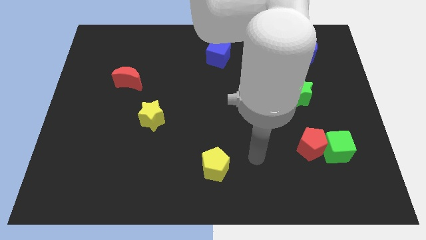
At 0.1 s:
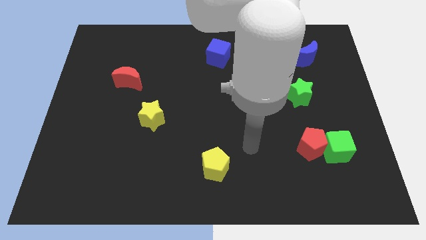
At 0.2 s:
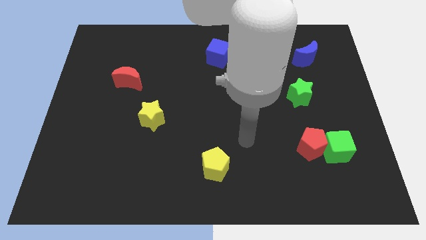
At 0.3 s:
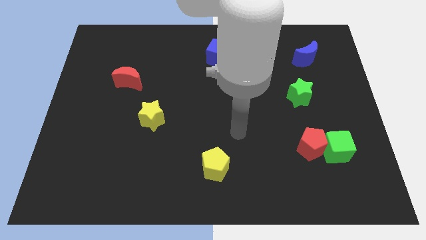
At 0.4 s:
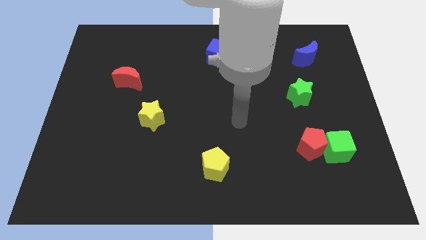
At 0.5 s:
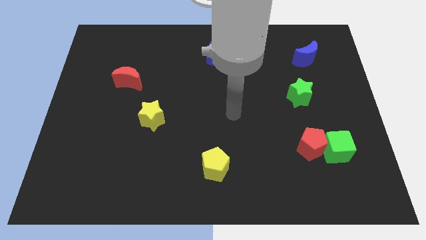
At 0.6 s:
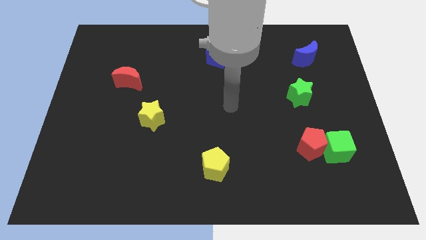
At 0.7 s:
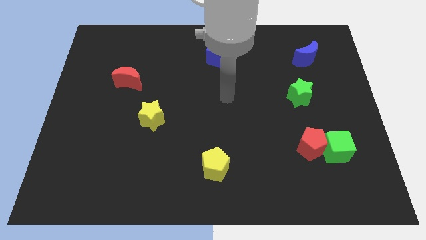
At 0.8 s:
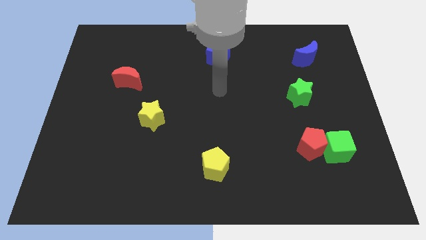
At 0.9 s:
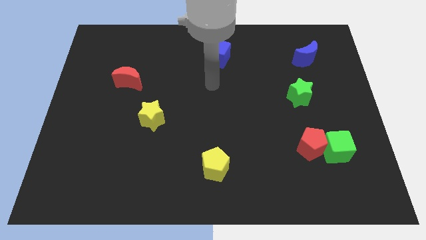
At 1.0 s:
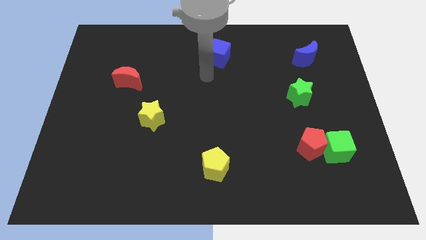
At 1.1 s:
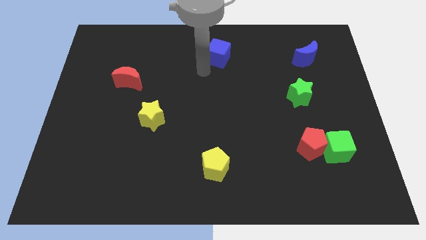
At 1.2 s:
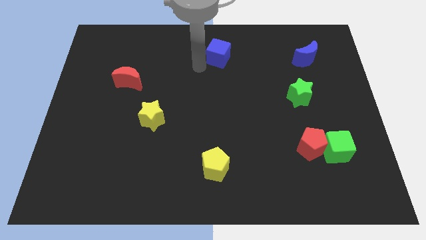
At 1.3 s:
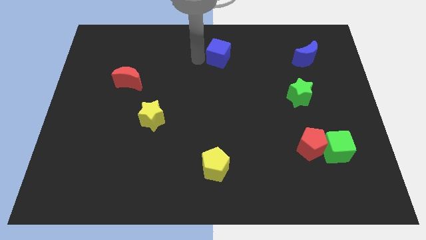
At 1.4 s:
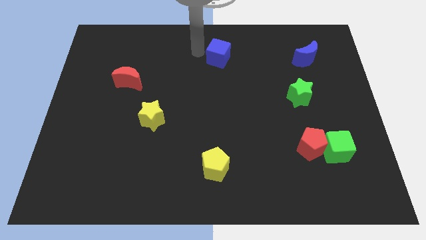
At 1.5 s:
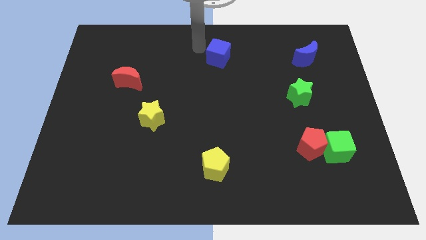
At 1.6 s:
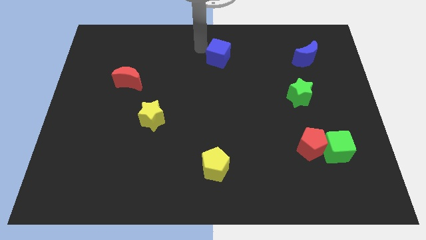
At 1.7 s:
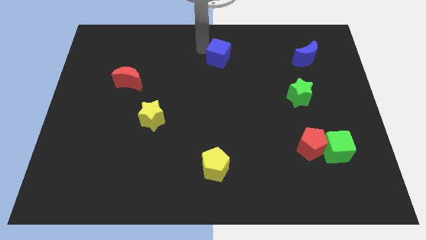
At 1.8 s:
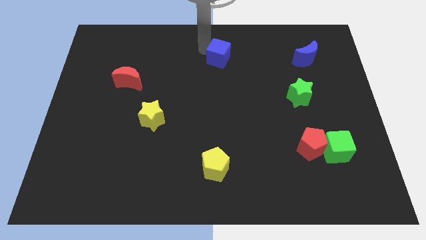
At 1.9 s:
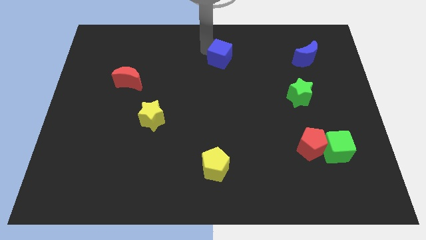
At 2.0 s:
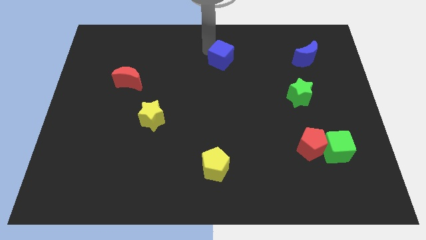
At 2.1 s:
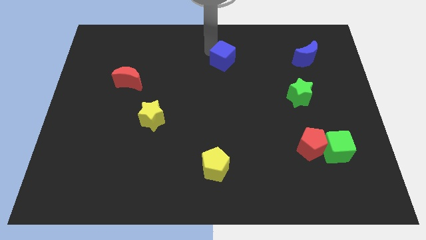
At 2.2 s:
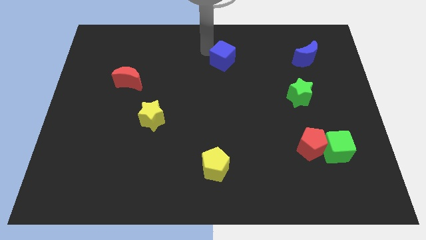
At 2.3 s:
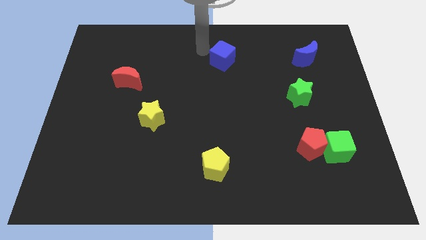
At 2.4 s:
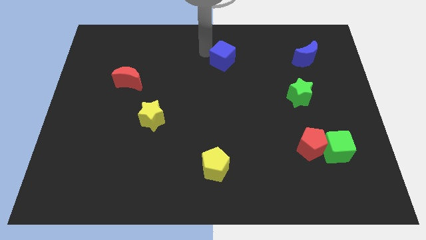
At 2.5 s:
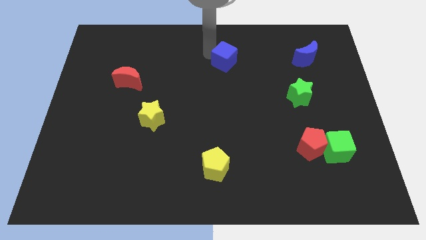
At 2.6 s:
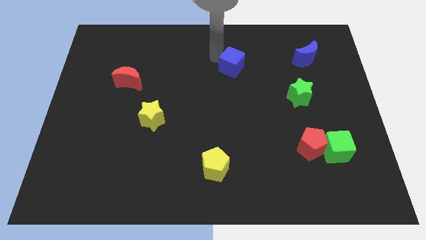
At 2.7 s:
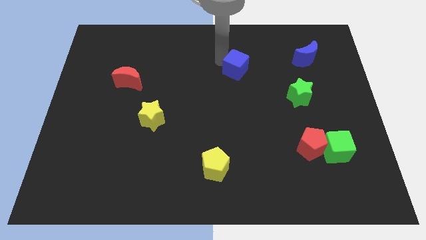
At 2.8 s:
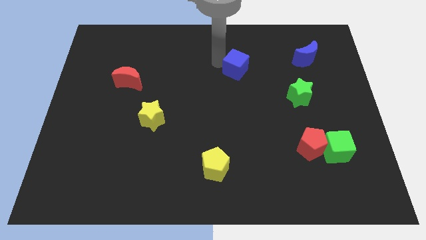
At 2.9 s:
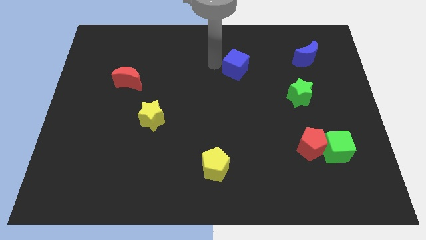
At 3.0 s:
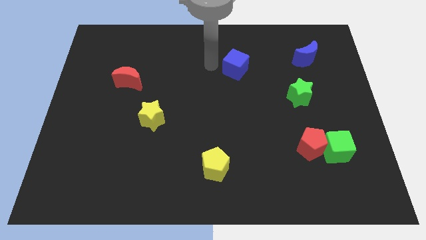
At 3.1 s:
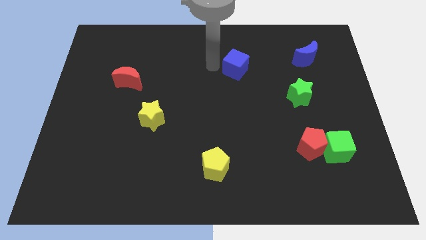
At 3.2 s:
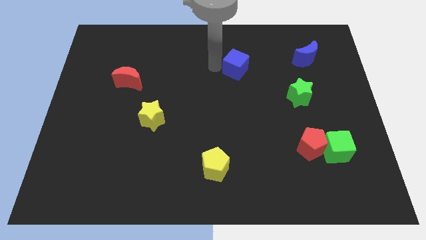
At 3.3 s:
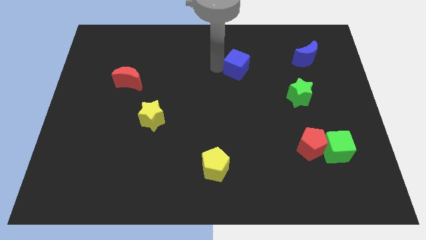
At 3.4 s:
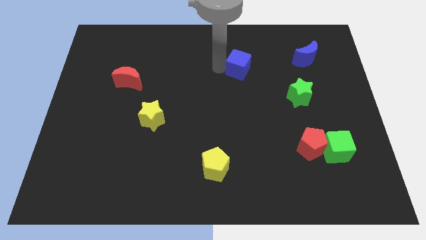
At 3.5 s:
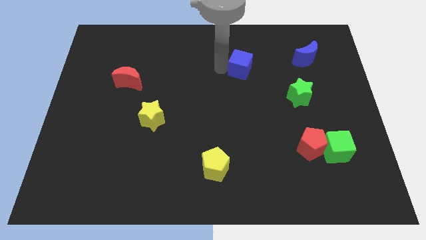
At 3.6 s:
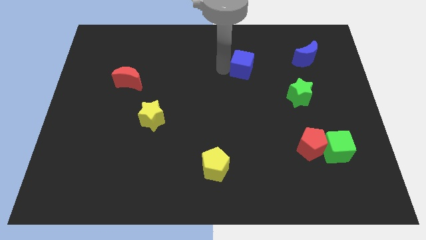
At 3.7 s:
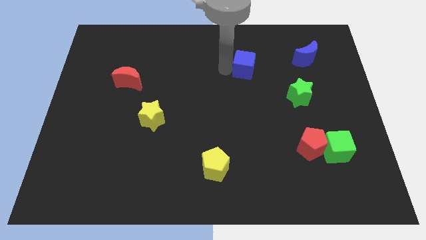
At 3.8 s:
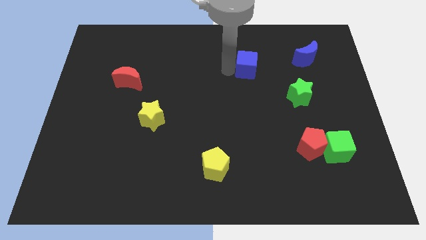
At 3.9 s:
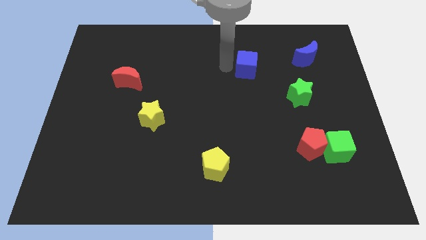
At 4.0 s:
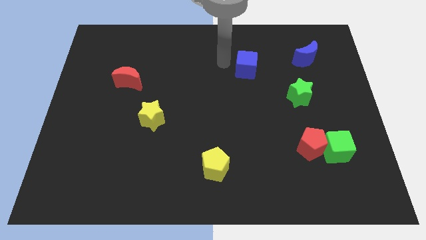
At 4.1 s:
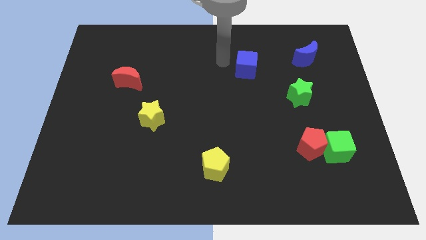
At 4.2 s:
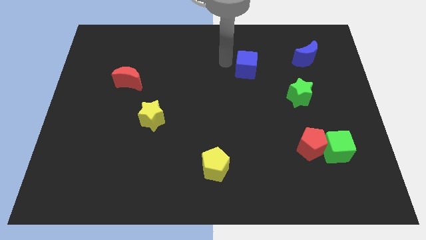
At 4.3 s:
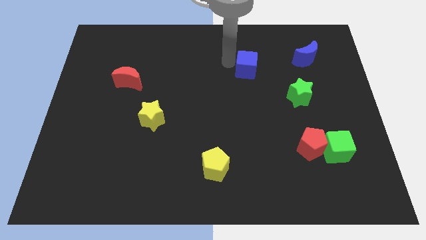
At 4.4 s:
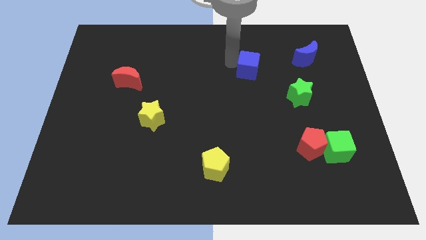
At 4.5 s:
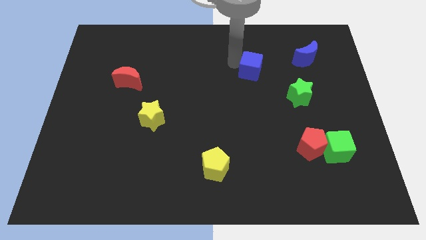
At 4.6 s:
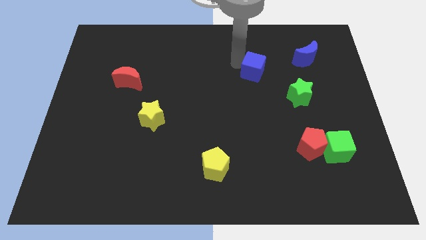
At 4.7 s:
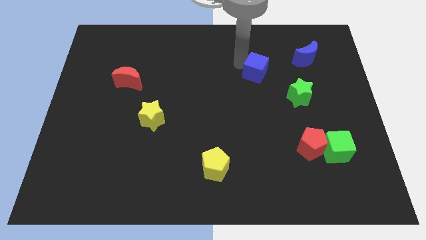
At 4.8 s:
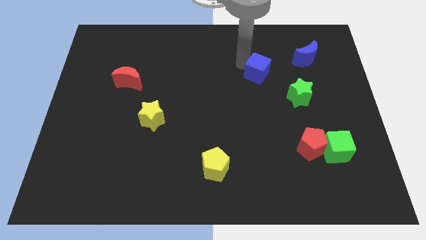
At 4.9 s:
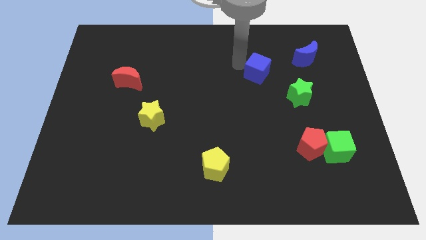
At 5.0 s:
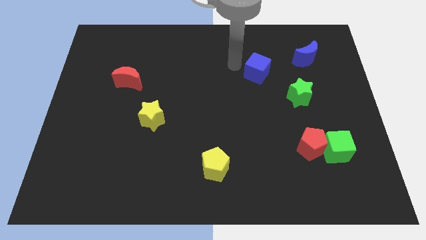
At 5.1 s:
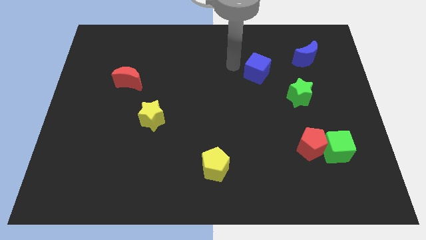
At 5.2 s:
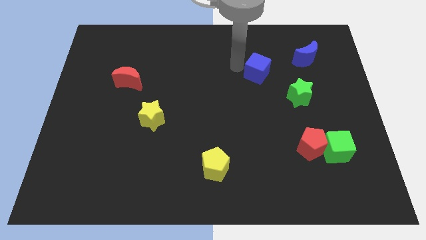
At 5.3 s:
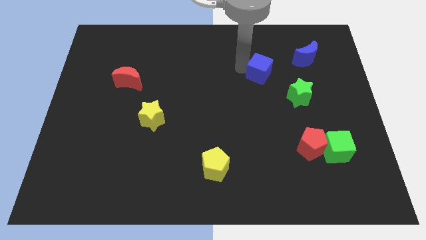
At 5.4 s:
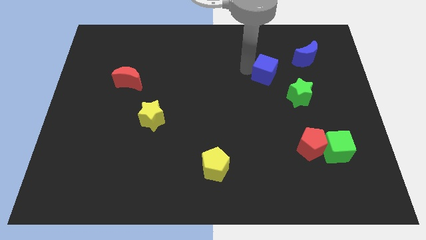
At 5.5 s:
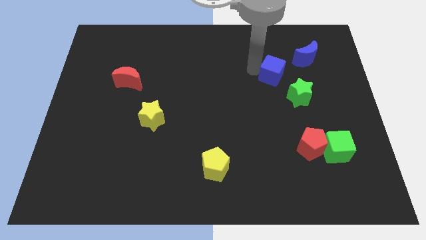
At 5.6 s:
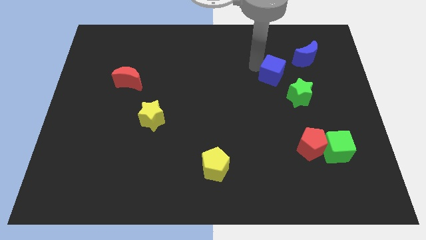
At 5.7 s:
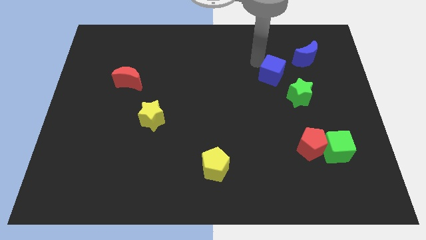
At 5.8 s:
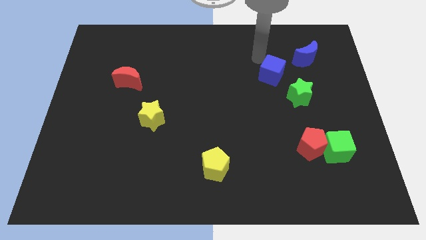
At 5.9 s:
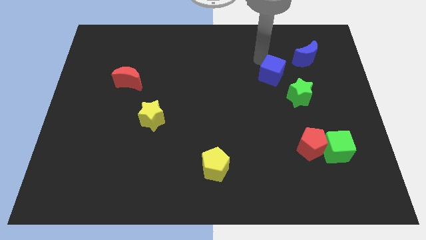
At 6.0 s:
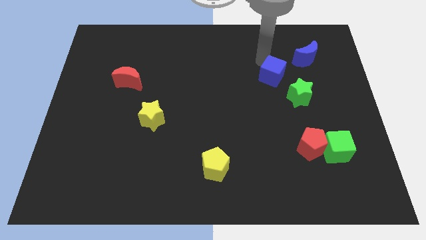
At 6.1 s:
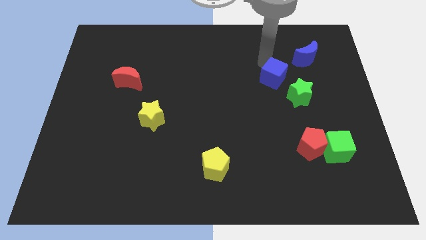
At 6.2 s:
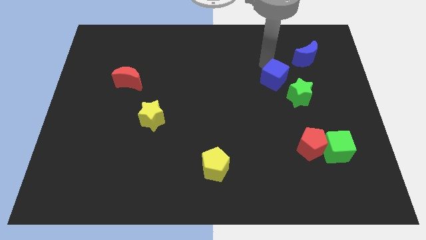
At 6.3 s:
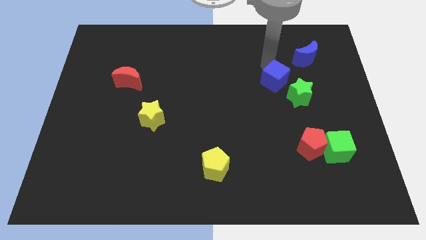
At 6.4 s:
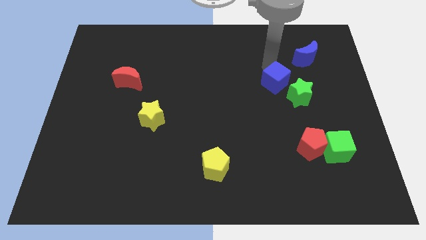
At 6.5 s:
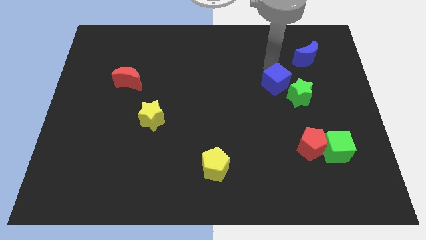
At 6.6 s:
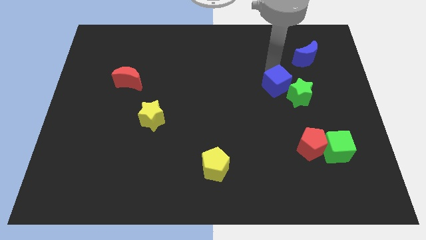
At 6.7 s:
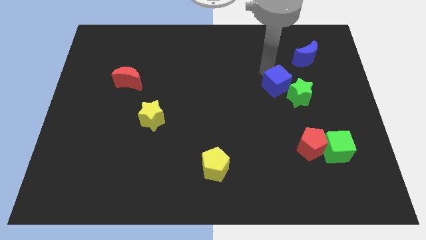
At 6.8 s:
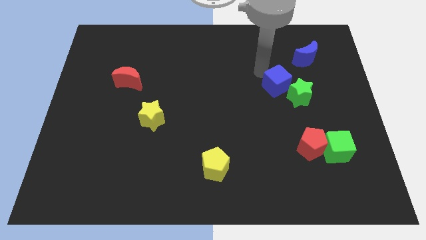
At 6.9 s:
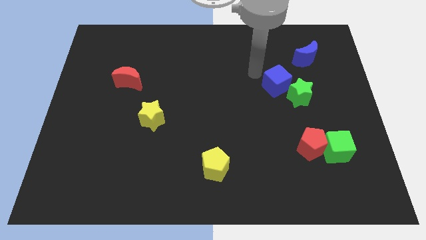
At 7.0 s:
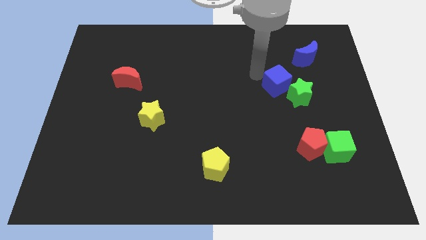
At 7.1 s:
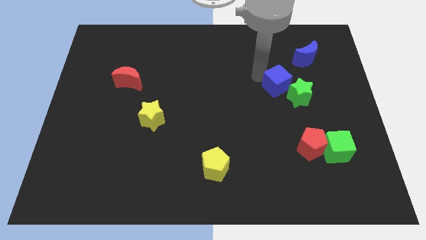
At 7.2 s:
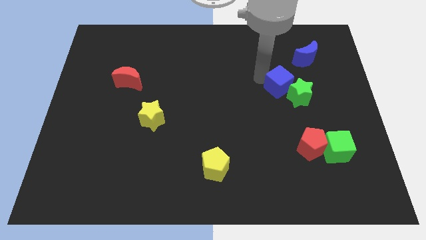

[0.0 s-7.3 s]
slide the blue cube to the green star
